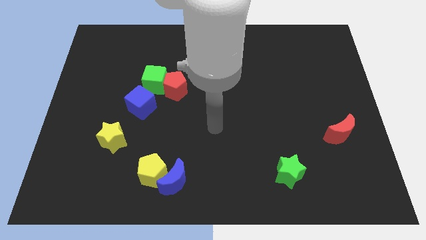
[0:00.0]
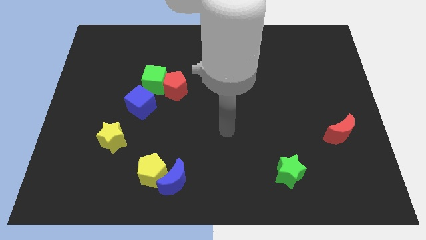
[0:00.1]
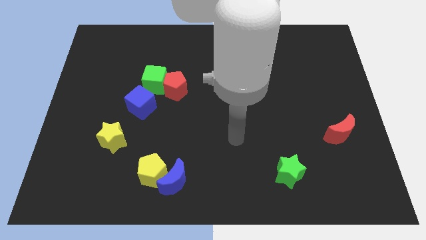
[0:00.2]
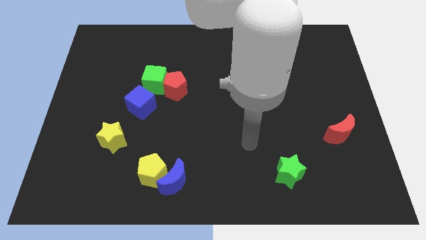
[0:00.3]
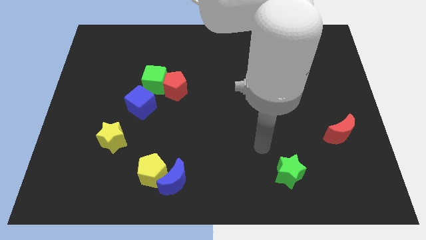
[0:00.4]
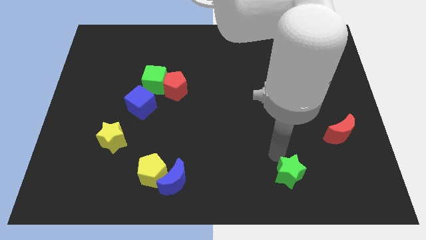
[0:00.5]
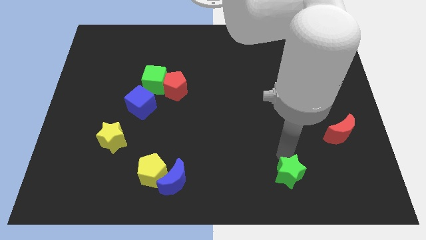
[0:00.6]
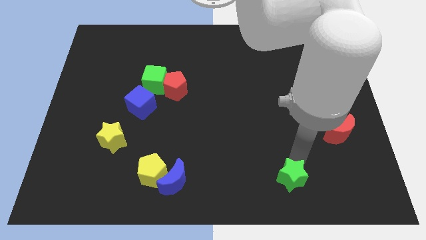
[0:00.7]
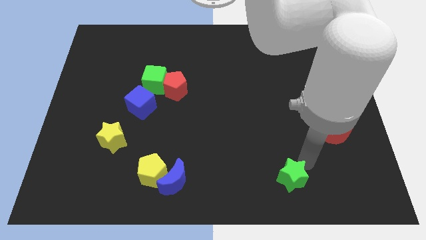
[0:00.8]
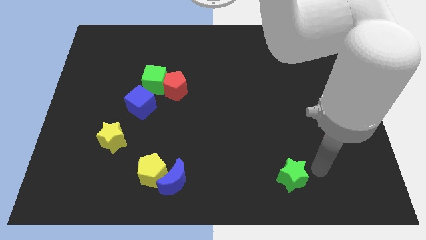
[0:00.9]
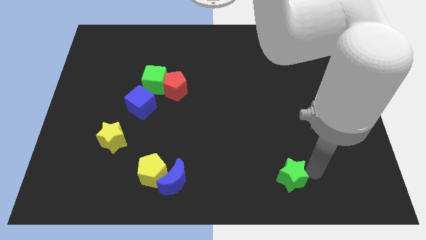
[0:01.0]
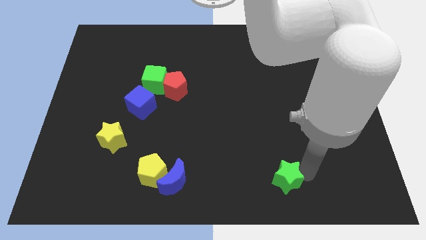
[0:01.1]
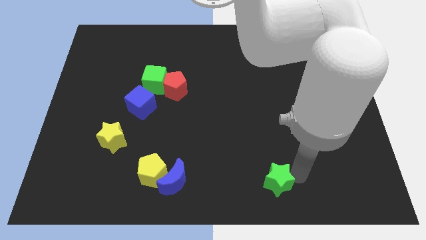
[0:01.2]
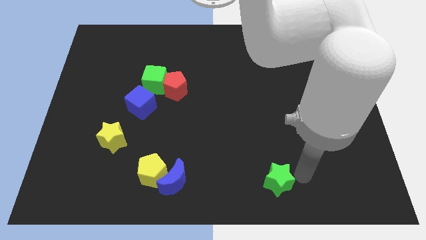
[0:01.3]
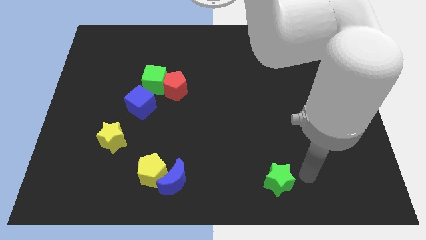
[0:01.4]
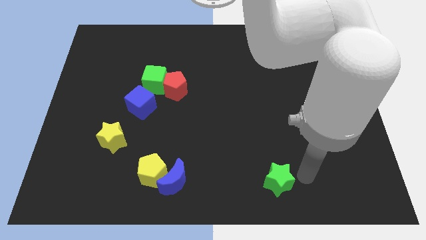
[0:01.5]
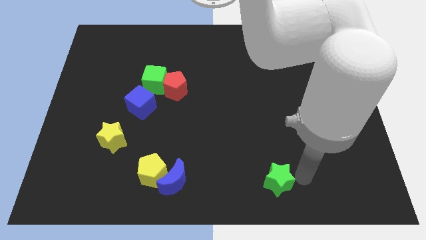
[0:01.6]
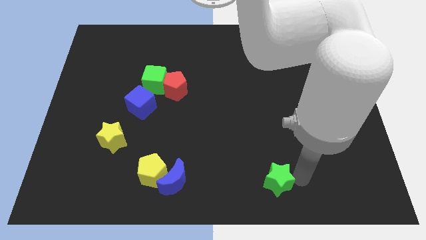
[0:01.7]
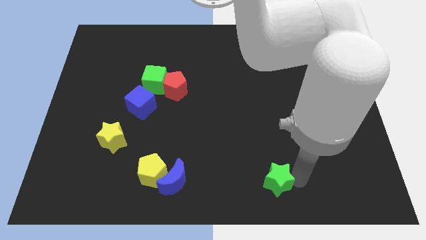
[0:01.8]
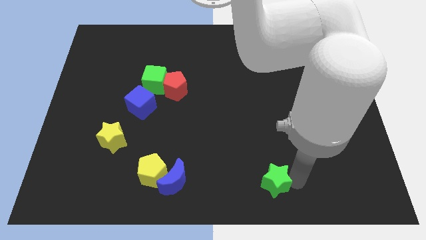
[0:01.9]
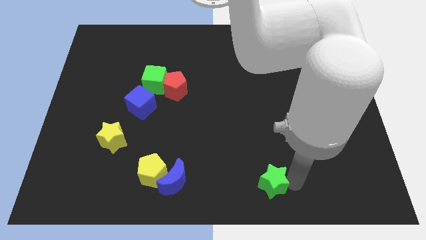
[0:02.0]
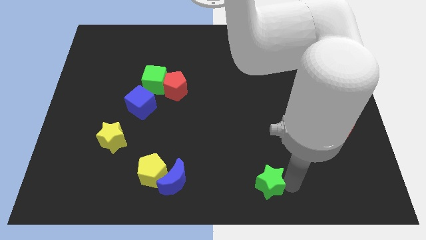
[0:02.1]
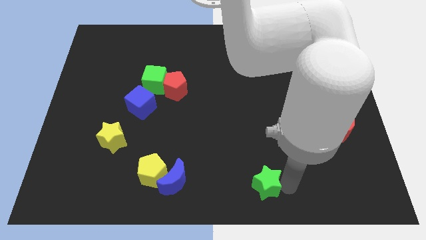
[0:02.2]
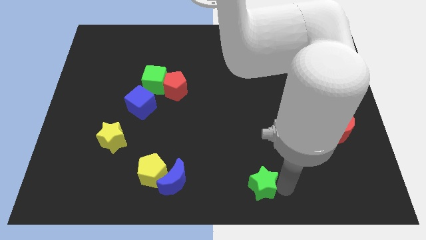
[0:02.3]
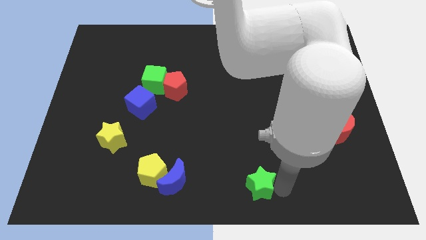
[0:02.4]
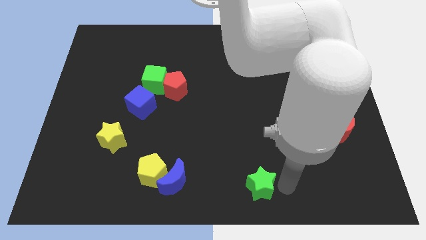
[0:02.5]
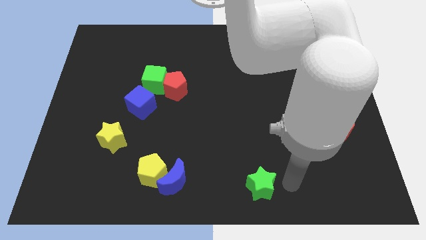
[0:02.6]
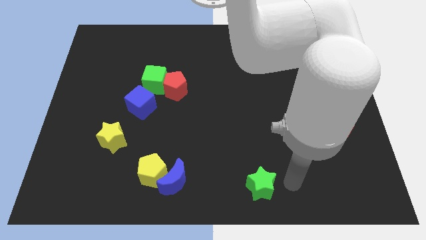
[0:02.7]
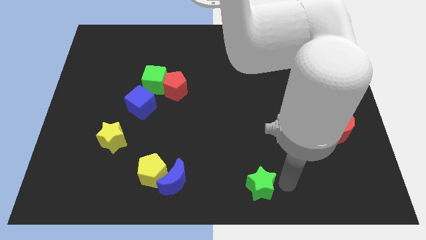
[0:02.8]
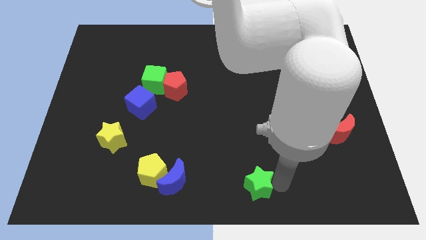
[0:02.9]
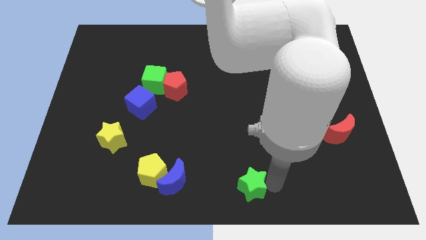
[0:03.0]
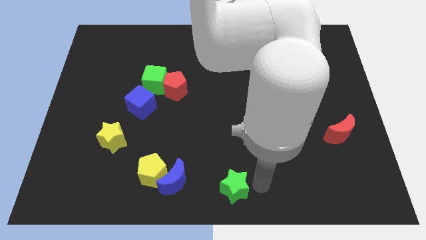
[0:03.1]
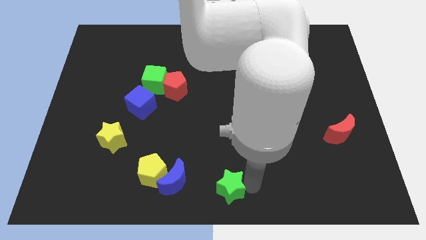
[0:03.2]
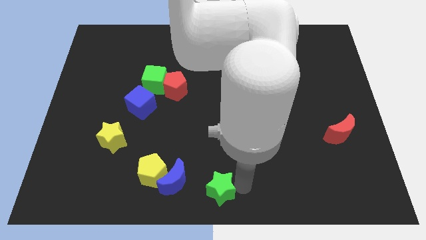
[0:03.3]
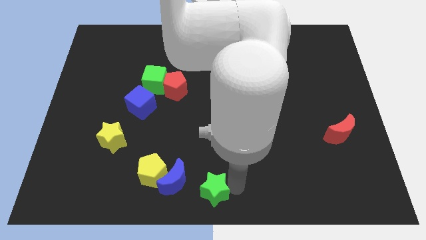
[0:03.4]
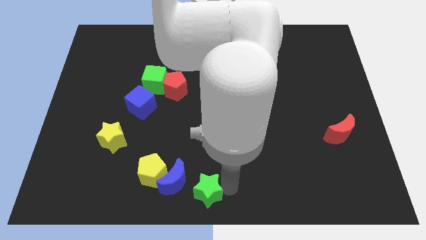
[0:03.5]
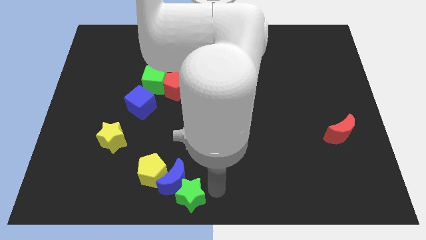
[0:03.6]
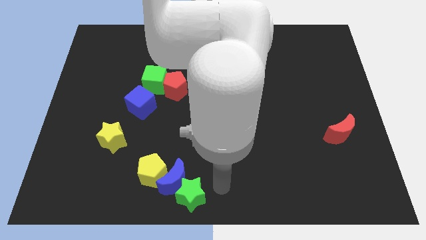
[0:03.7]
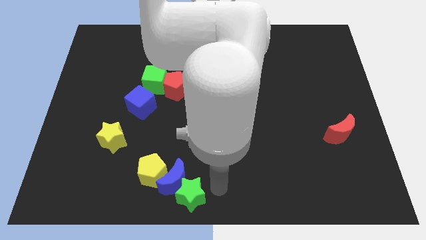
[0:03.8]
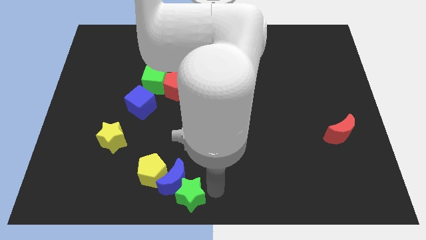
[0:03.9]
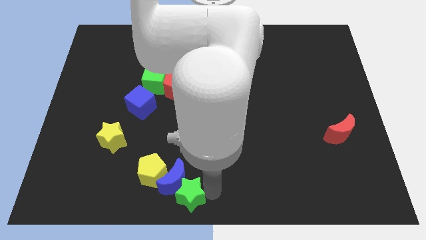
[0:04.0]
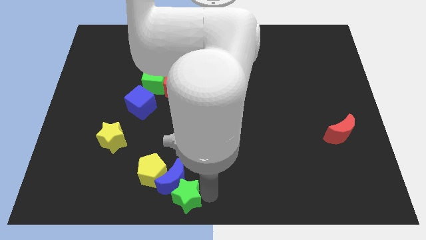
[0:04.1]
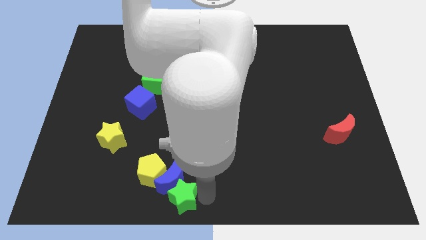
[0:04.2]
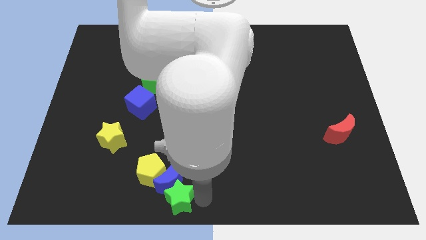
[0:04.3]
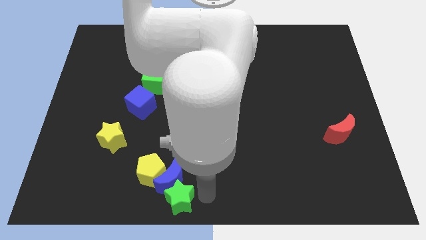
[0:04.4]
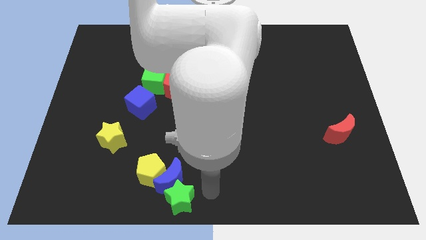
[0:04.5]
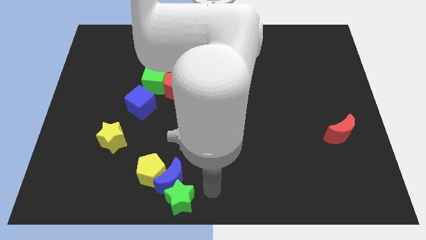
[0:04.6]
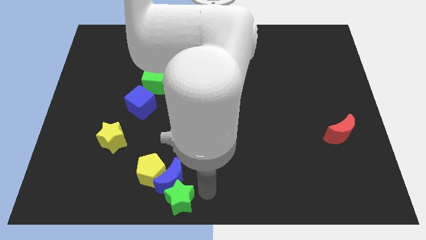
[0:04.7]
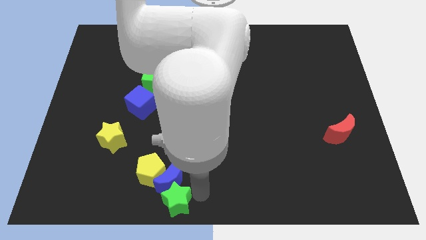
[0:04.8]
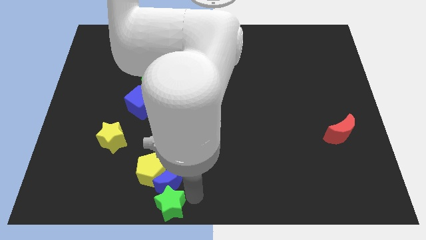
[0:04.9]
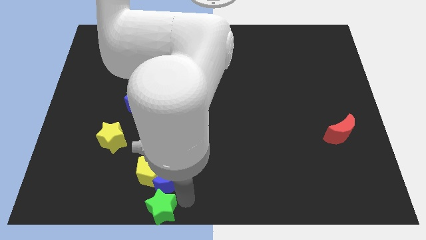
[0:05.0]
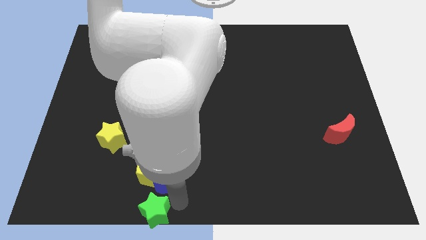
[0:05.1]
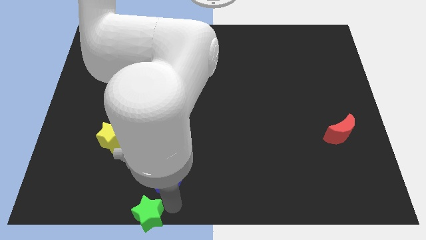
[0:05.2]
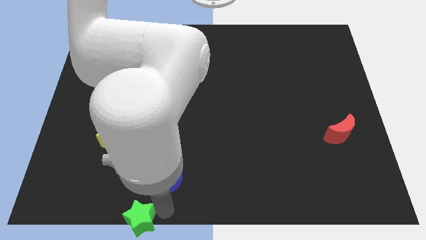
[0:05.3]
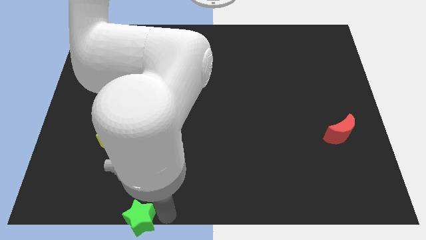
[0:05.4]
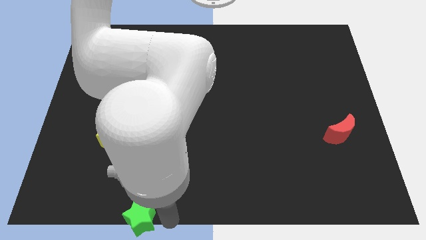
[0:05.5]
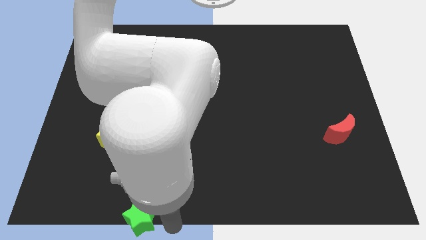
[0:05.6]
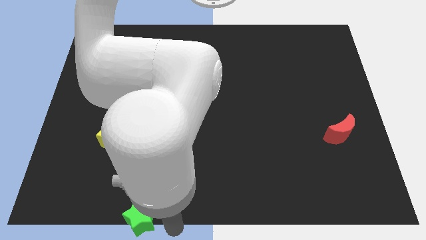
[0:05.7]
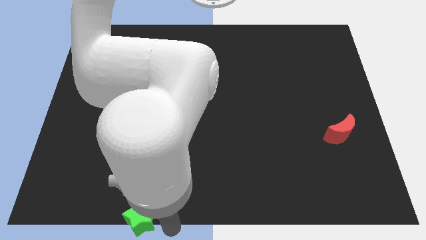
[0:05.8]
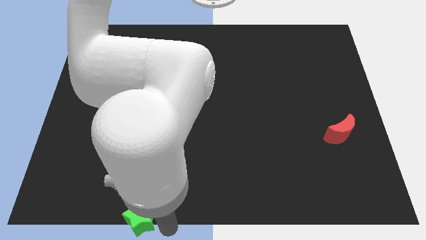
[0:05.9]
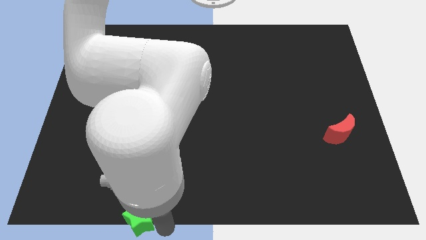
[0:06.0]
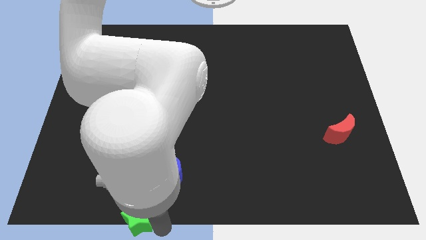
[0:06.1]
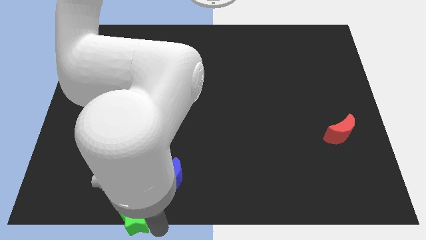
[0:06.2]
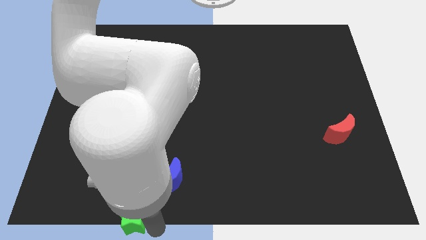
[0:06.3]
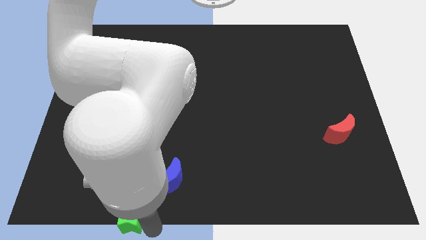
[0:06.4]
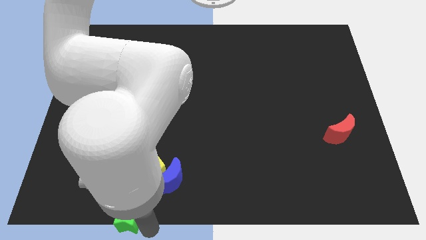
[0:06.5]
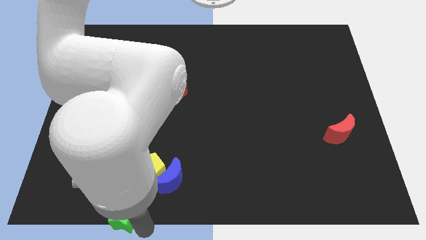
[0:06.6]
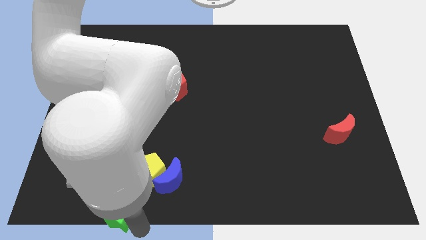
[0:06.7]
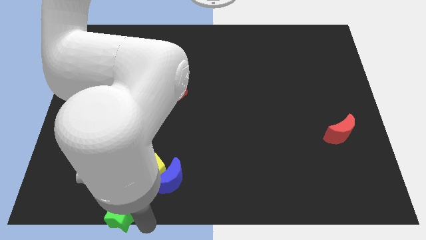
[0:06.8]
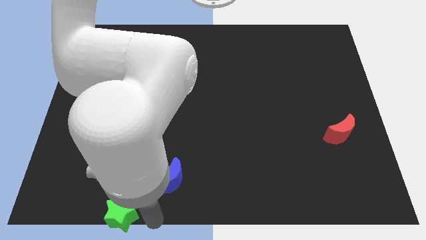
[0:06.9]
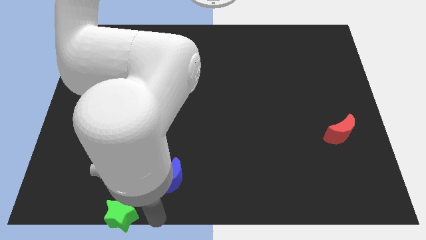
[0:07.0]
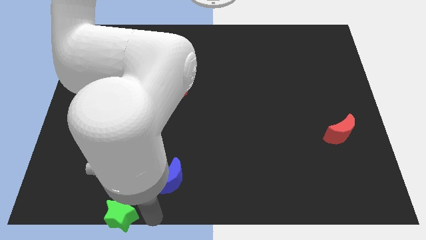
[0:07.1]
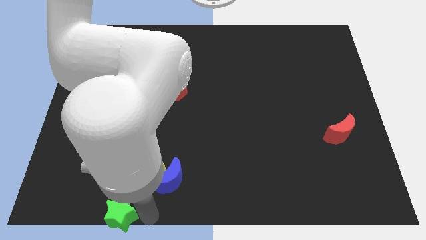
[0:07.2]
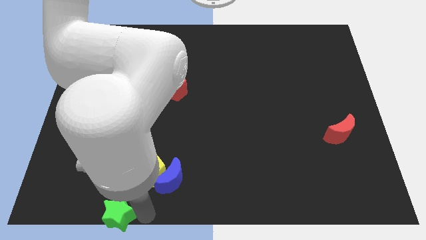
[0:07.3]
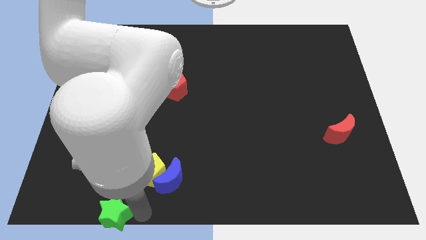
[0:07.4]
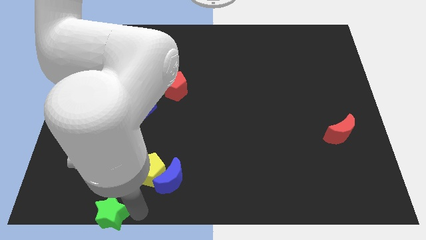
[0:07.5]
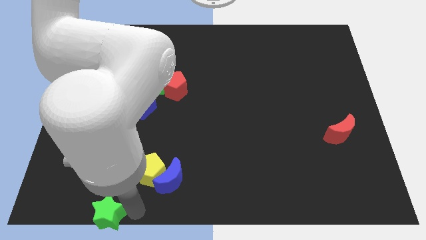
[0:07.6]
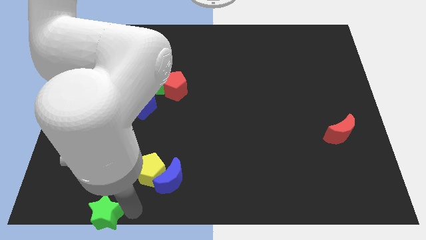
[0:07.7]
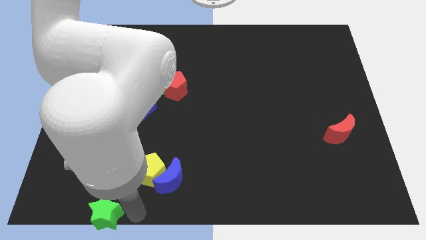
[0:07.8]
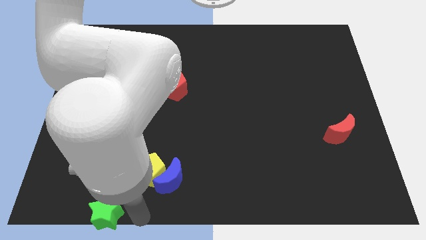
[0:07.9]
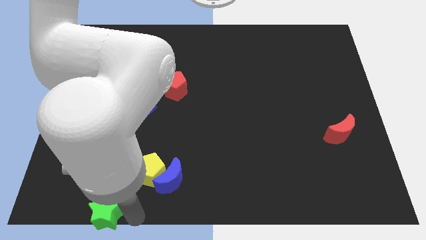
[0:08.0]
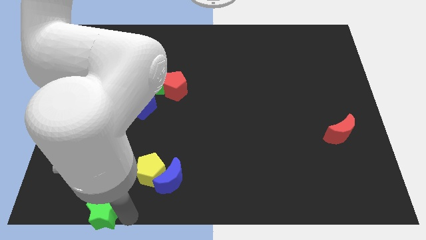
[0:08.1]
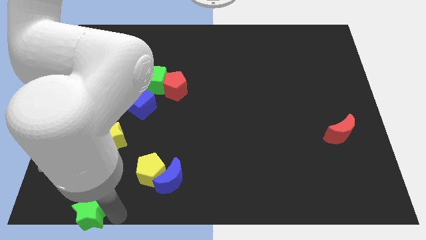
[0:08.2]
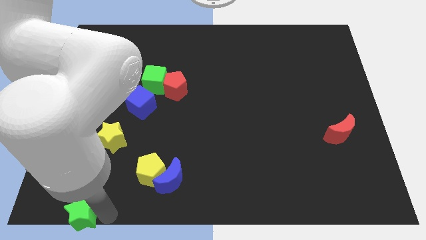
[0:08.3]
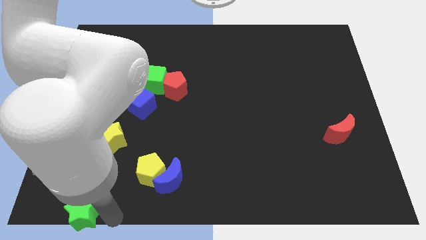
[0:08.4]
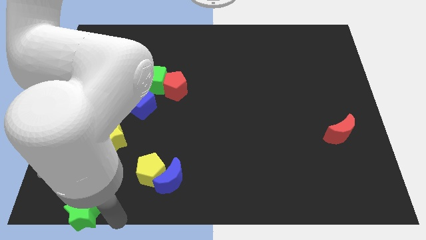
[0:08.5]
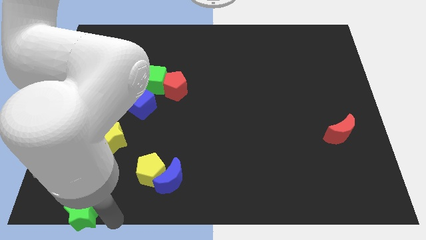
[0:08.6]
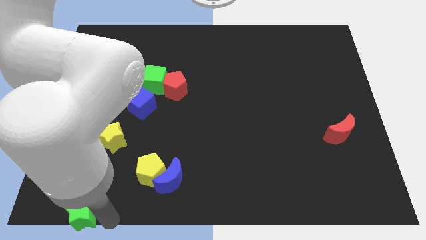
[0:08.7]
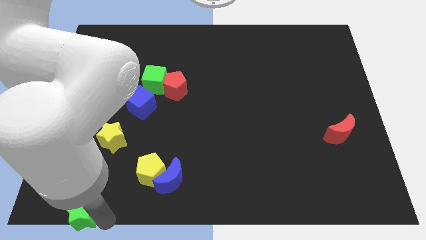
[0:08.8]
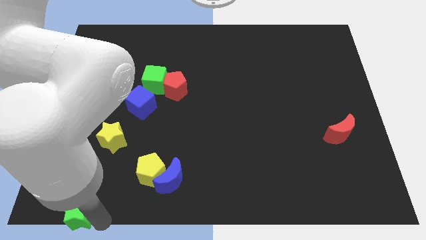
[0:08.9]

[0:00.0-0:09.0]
push the green star to the bottom left
